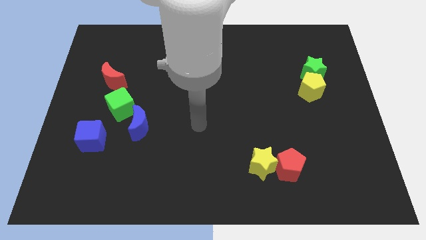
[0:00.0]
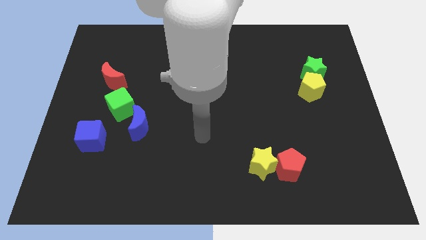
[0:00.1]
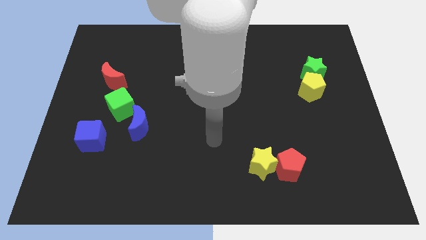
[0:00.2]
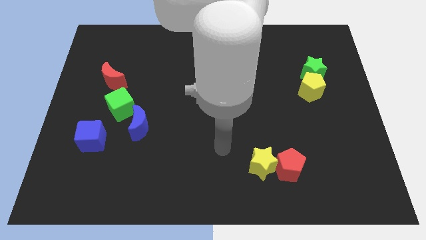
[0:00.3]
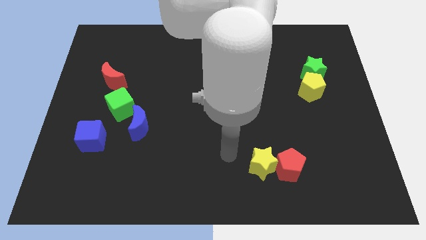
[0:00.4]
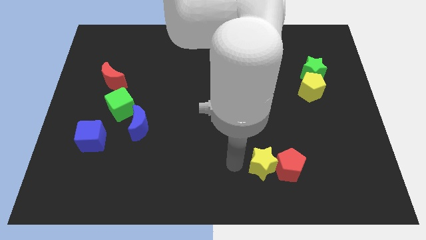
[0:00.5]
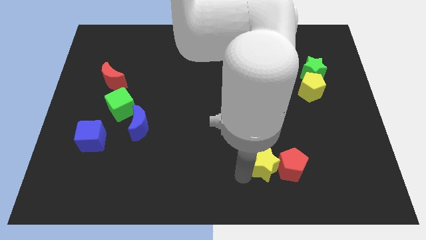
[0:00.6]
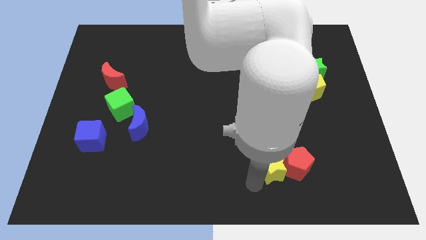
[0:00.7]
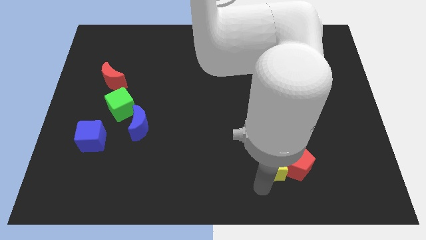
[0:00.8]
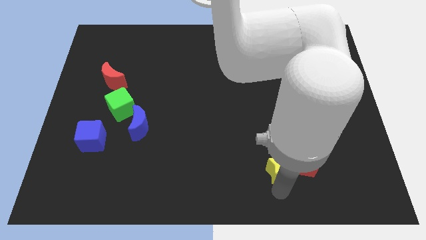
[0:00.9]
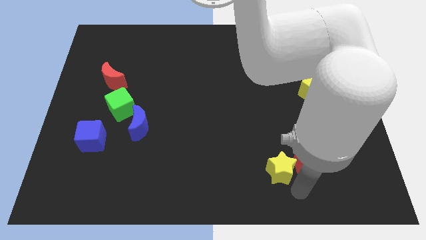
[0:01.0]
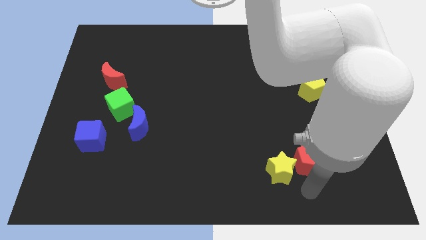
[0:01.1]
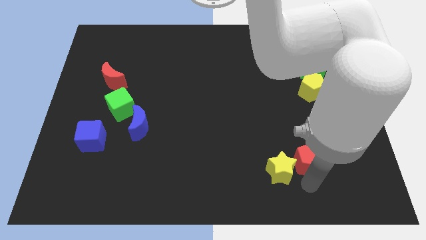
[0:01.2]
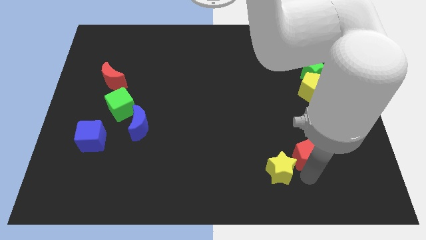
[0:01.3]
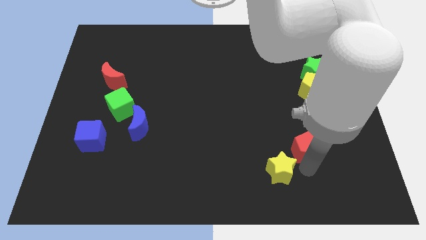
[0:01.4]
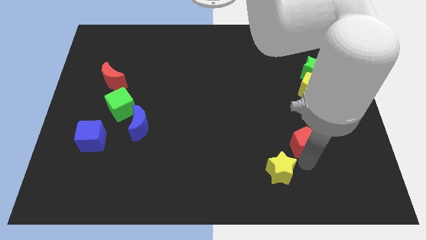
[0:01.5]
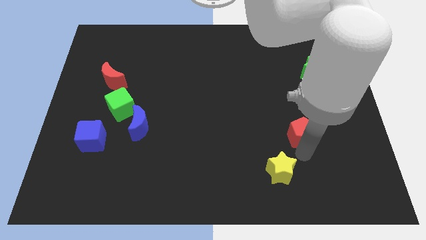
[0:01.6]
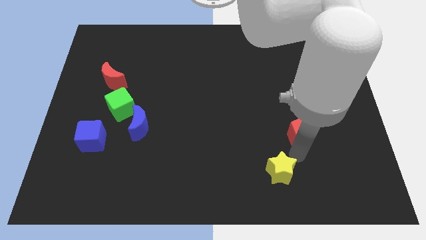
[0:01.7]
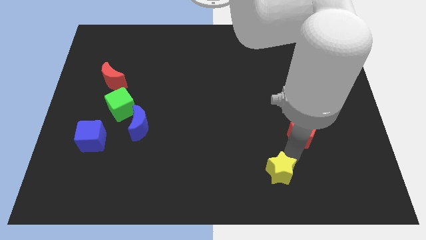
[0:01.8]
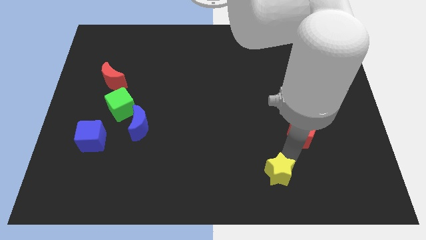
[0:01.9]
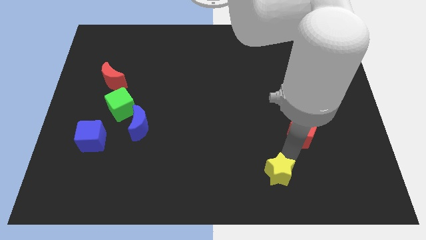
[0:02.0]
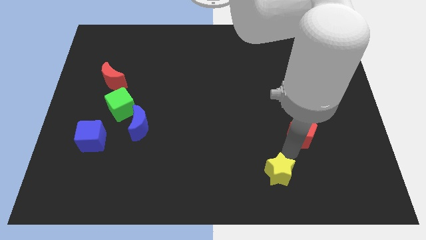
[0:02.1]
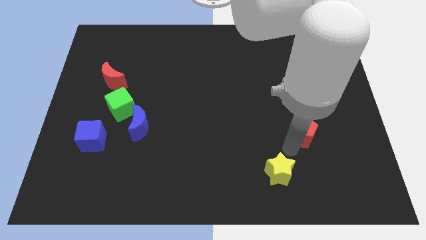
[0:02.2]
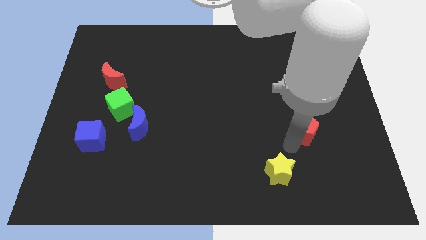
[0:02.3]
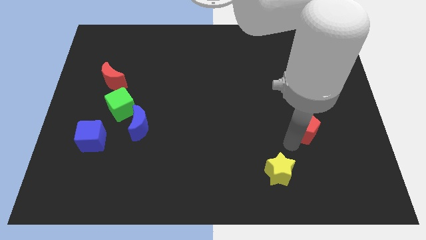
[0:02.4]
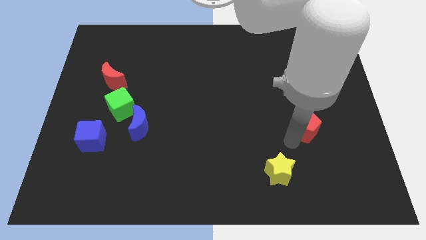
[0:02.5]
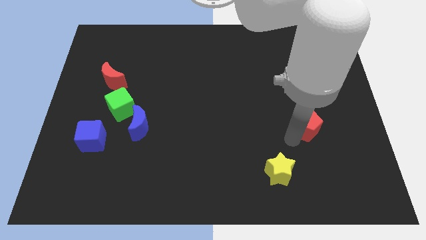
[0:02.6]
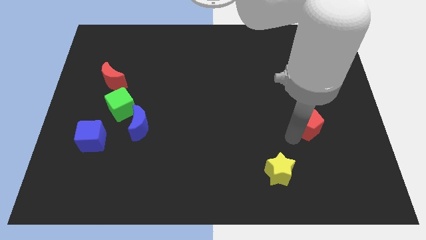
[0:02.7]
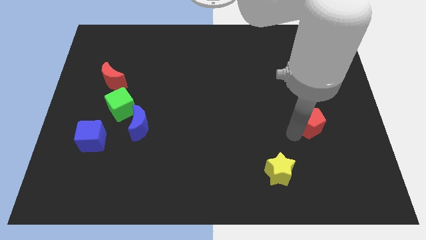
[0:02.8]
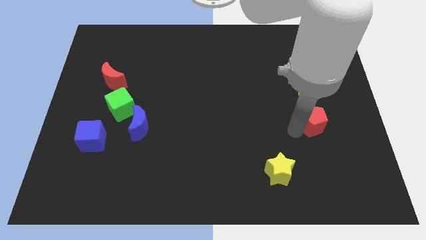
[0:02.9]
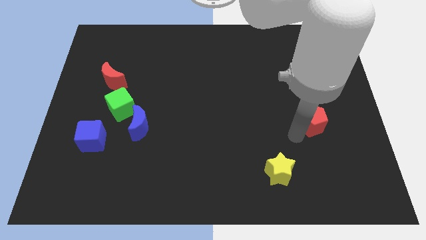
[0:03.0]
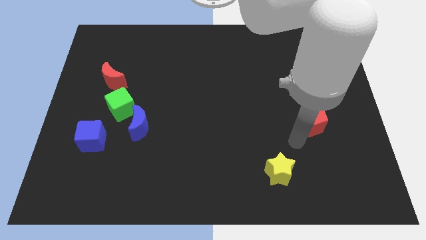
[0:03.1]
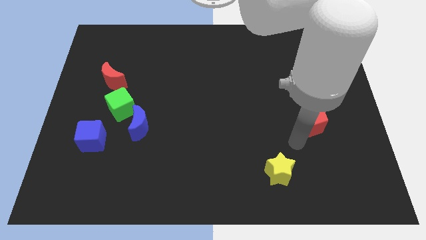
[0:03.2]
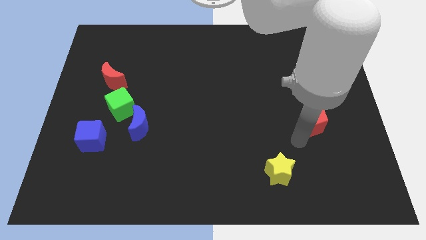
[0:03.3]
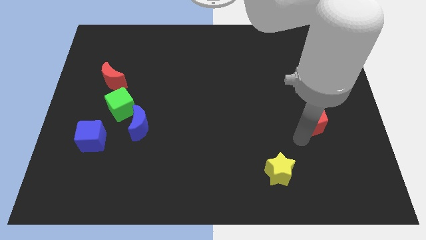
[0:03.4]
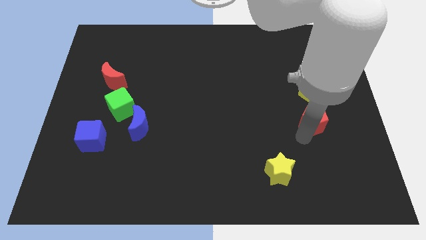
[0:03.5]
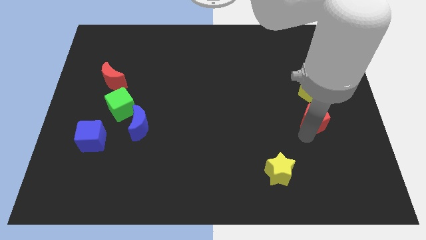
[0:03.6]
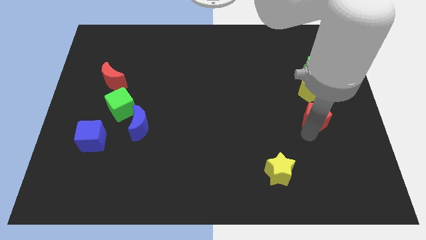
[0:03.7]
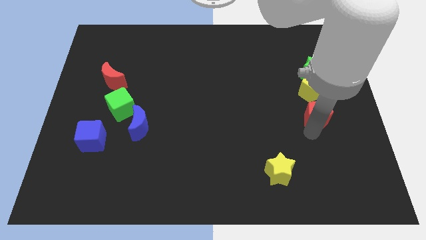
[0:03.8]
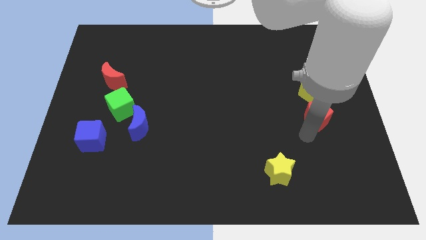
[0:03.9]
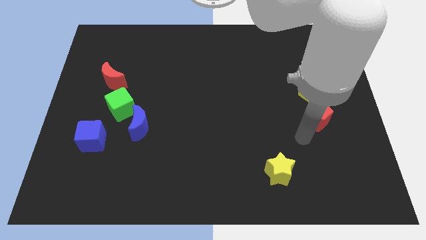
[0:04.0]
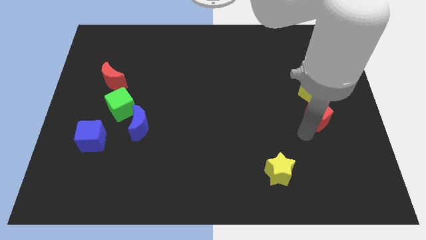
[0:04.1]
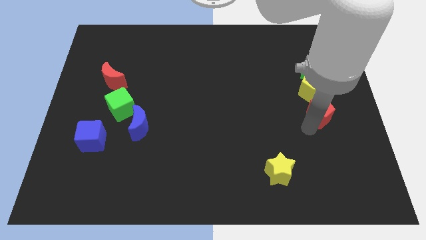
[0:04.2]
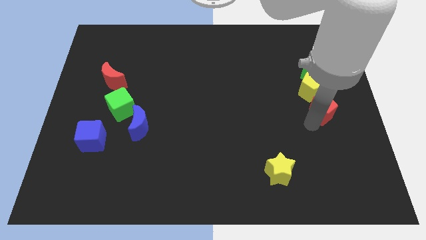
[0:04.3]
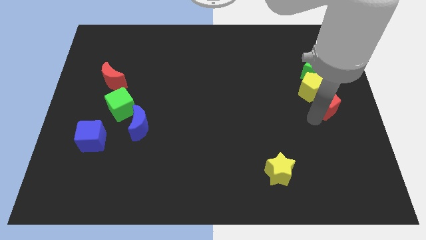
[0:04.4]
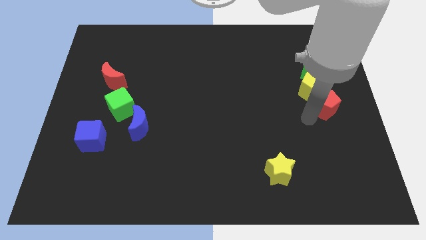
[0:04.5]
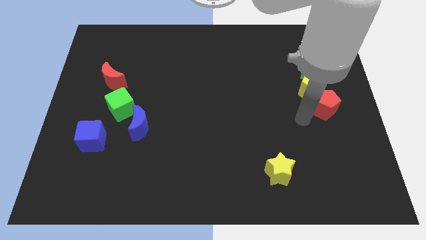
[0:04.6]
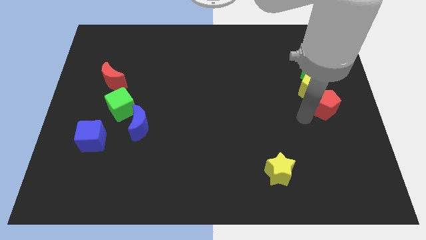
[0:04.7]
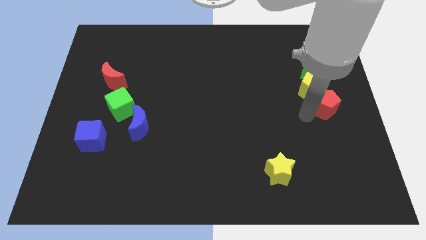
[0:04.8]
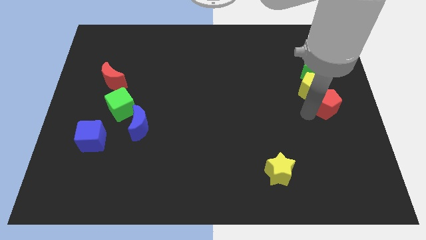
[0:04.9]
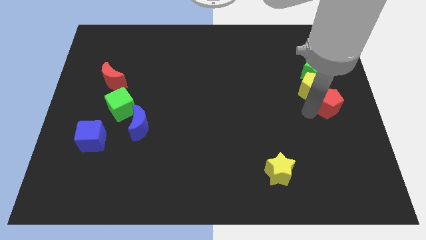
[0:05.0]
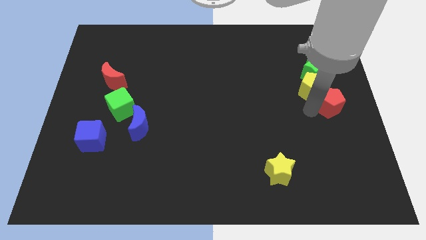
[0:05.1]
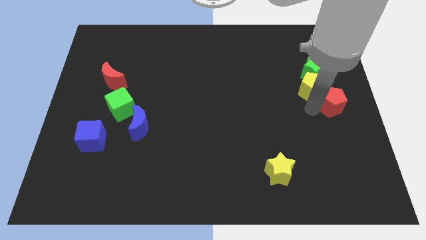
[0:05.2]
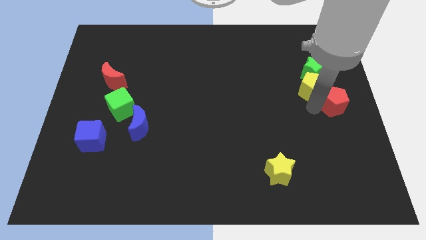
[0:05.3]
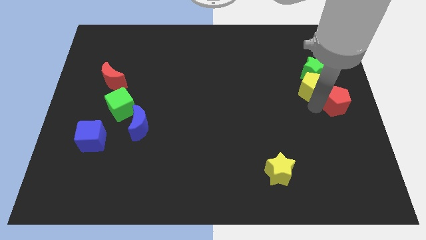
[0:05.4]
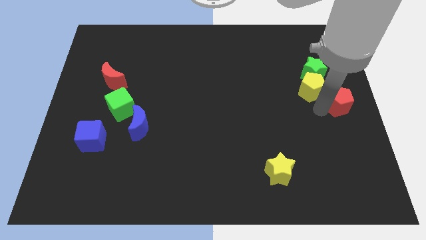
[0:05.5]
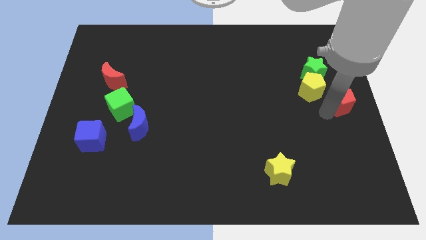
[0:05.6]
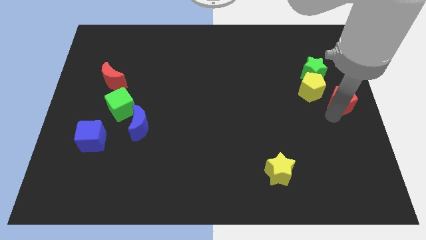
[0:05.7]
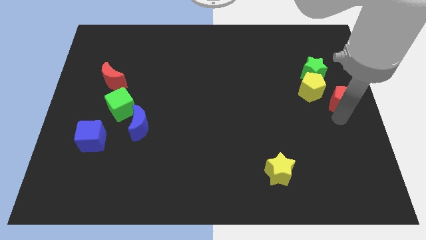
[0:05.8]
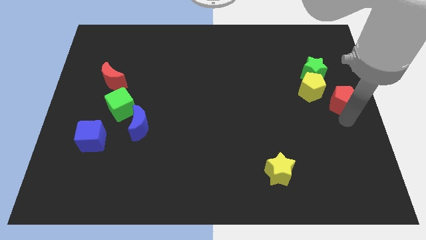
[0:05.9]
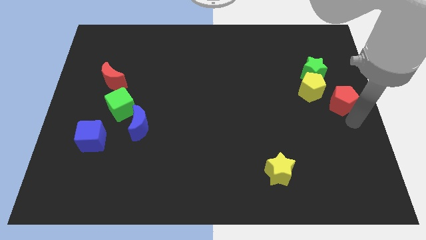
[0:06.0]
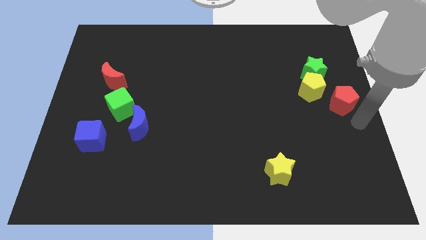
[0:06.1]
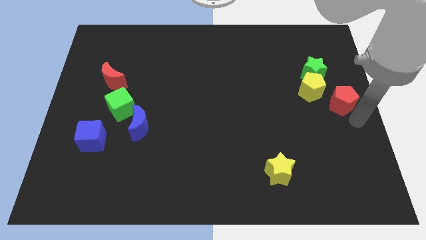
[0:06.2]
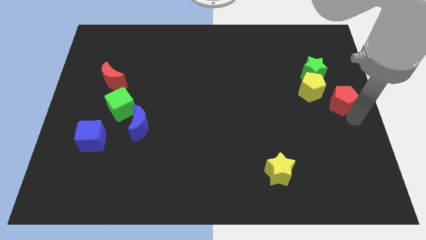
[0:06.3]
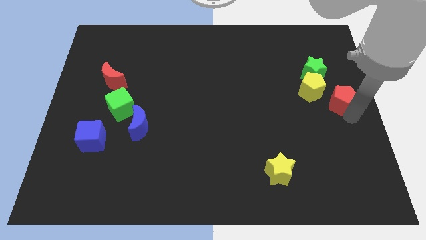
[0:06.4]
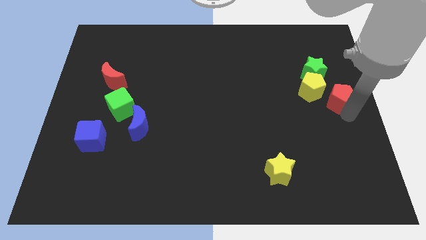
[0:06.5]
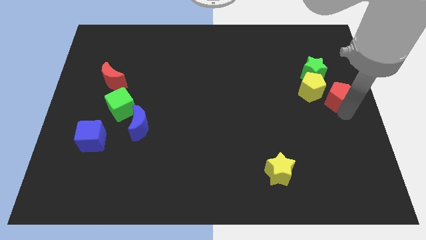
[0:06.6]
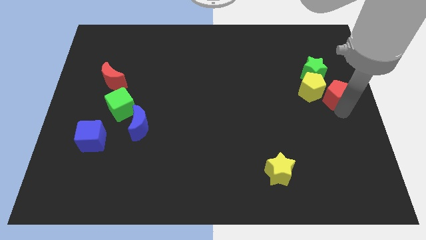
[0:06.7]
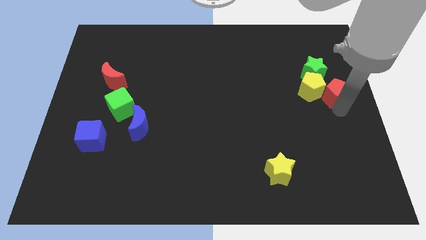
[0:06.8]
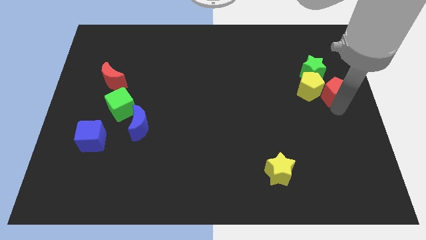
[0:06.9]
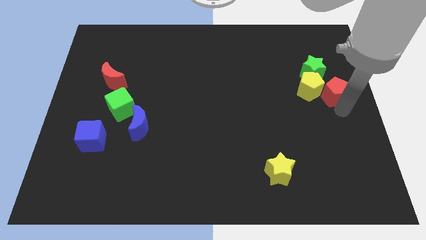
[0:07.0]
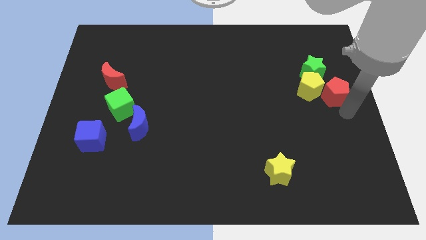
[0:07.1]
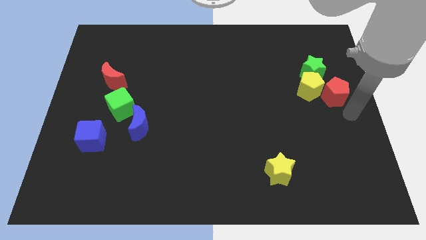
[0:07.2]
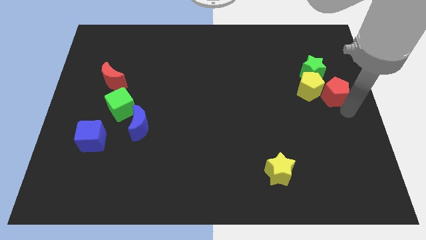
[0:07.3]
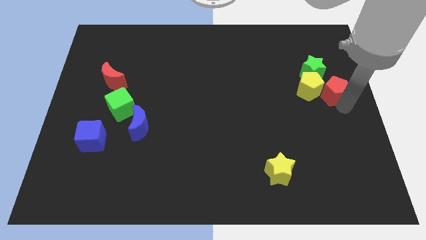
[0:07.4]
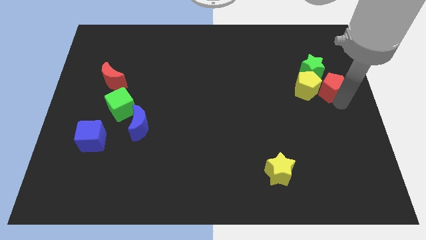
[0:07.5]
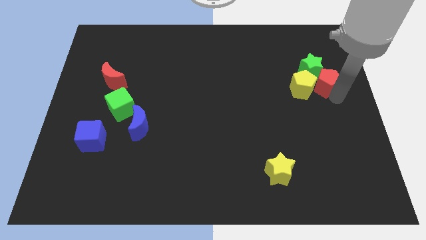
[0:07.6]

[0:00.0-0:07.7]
push the red pentagon next to the green star
